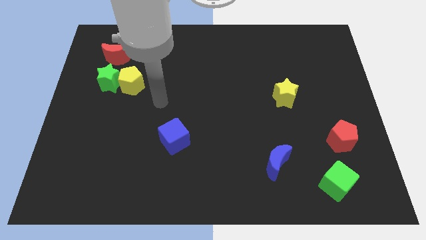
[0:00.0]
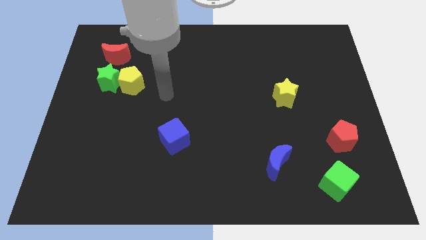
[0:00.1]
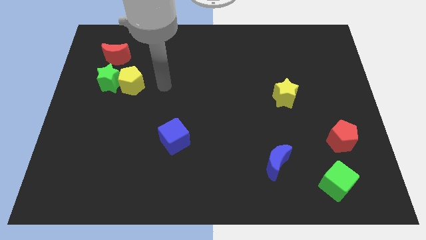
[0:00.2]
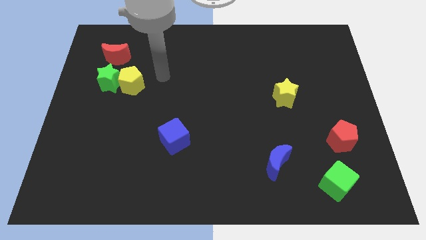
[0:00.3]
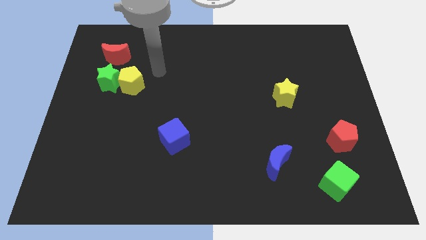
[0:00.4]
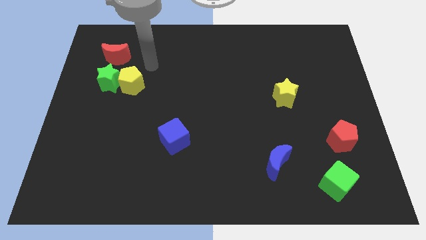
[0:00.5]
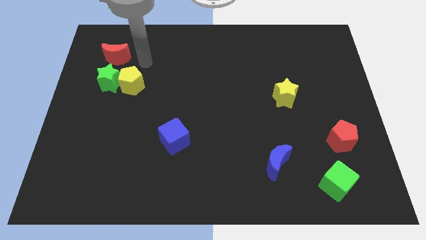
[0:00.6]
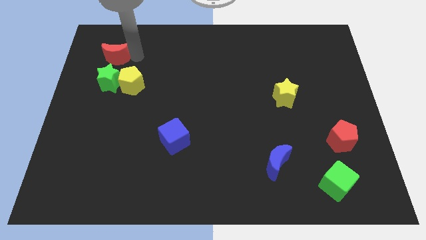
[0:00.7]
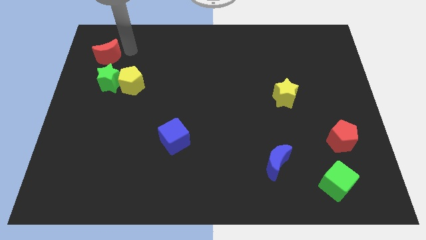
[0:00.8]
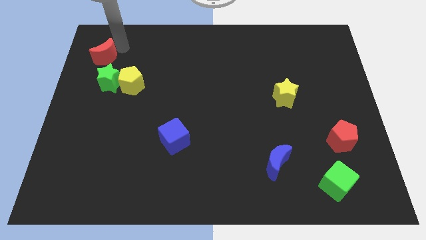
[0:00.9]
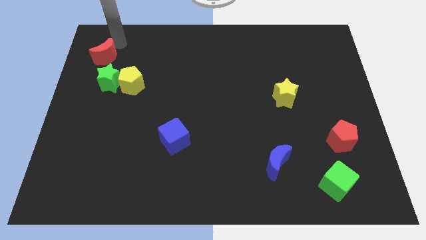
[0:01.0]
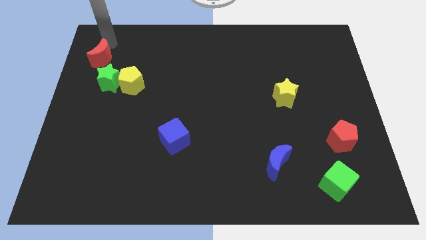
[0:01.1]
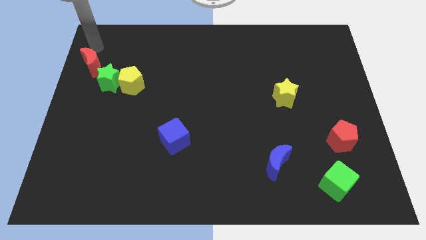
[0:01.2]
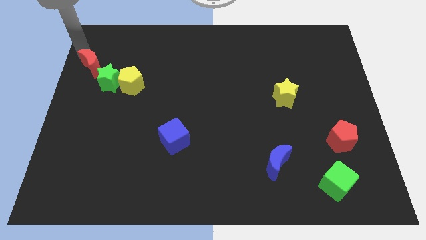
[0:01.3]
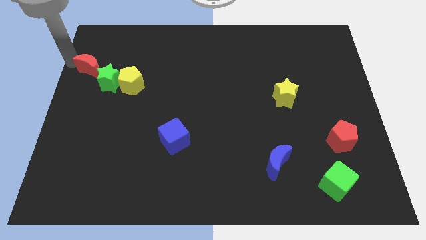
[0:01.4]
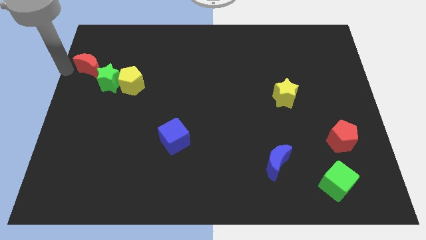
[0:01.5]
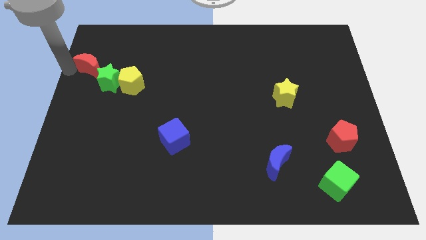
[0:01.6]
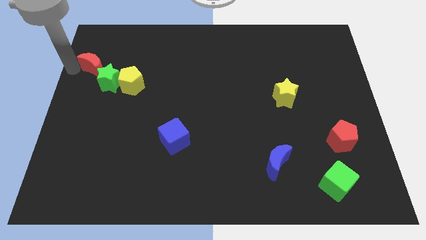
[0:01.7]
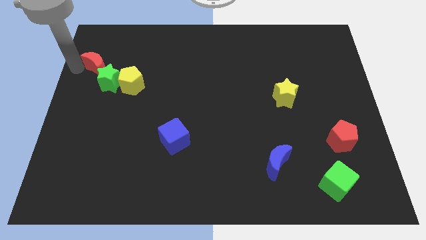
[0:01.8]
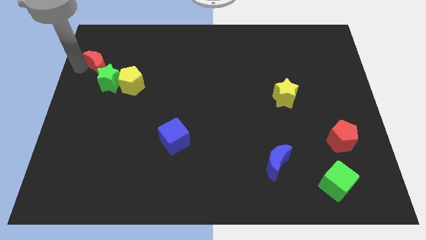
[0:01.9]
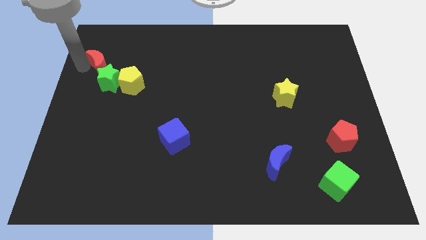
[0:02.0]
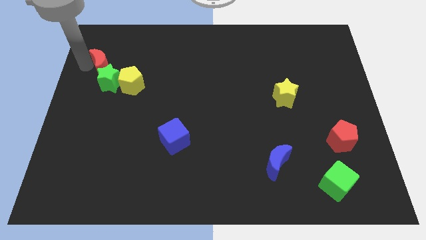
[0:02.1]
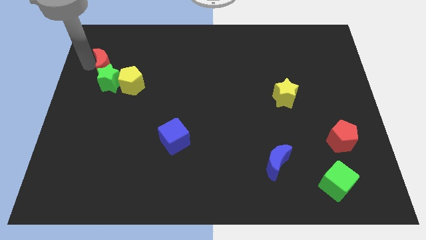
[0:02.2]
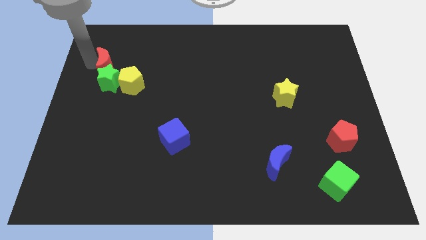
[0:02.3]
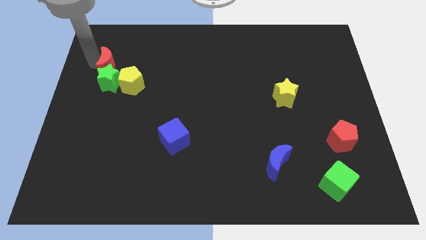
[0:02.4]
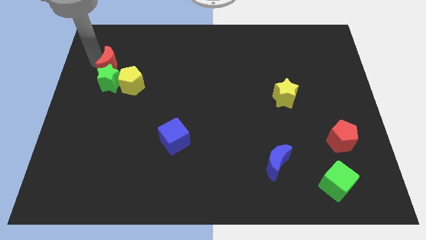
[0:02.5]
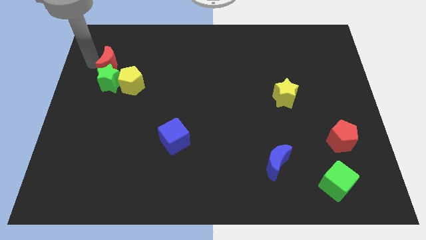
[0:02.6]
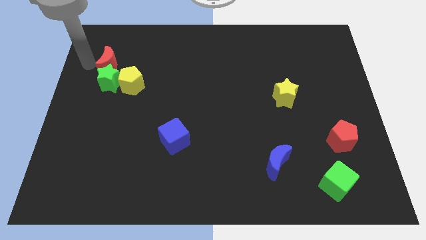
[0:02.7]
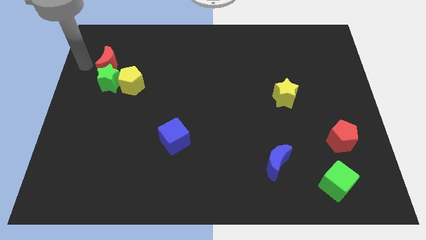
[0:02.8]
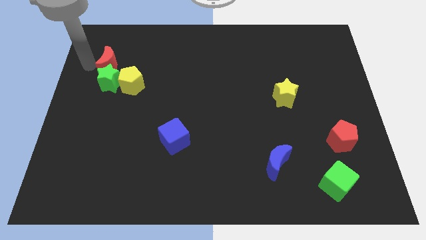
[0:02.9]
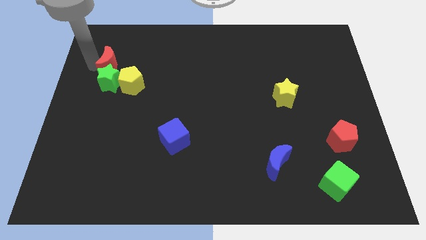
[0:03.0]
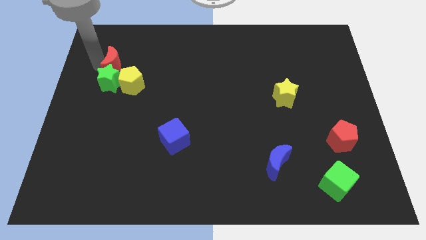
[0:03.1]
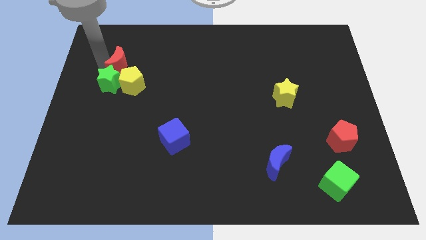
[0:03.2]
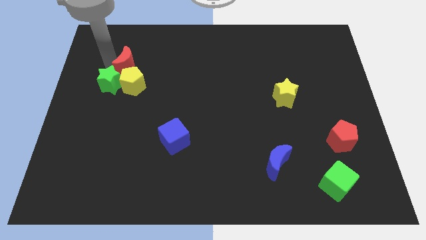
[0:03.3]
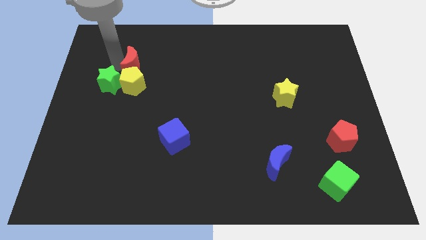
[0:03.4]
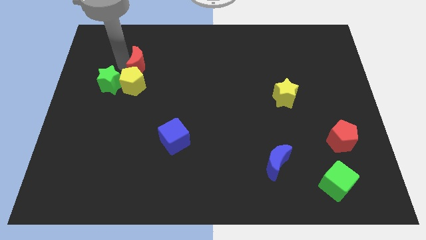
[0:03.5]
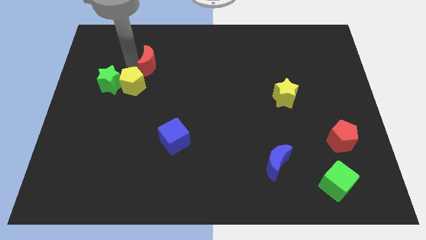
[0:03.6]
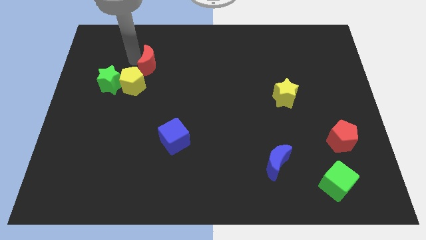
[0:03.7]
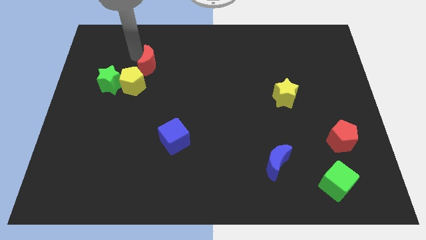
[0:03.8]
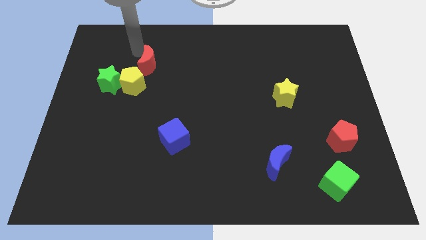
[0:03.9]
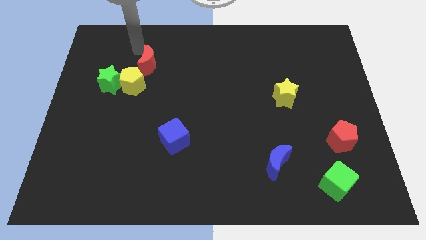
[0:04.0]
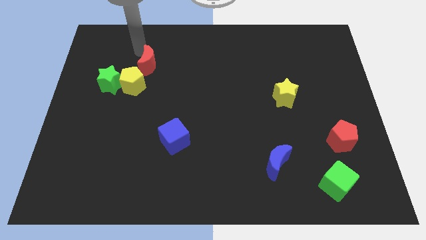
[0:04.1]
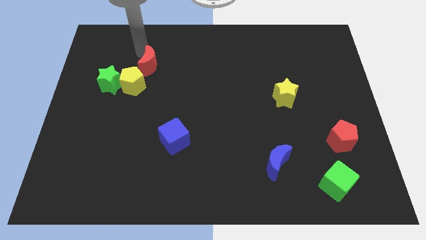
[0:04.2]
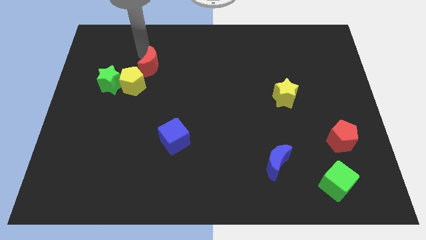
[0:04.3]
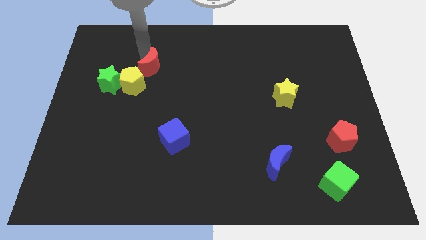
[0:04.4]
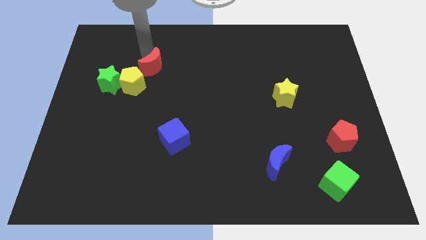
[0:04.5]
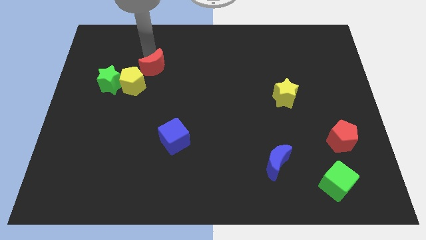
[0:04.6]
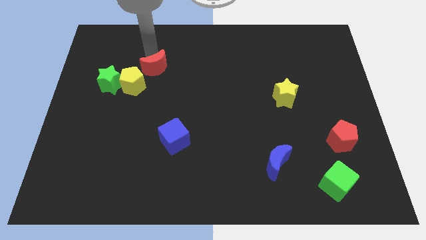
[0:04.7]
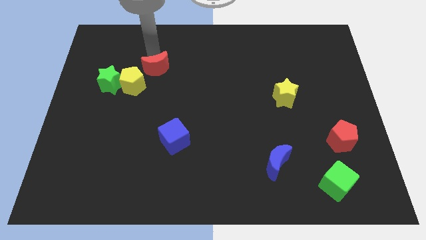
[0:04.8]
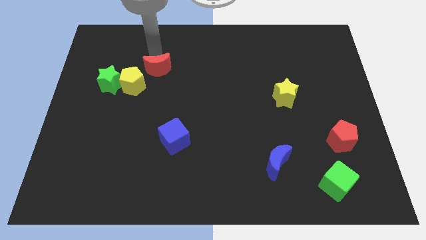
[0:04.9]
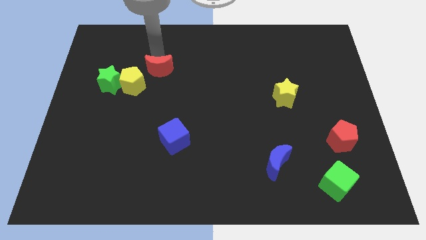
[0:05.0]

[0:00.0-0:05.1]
slide the red moon to the right of the yellow pentagon
